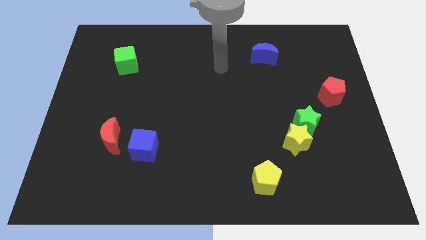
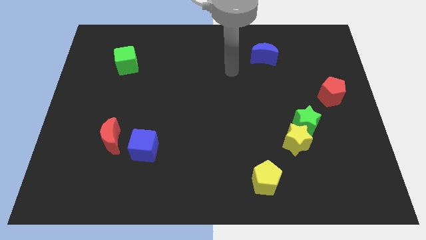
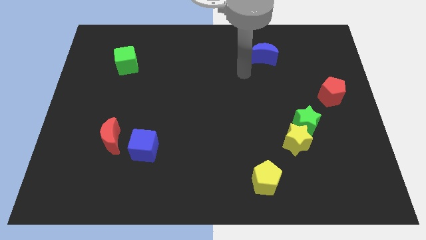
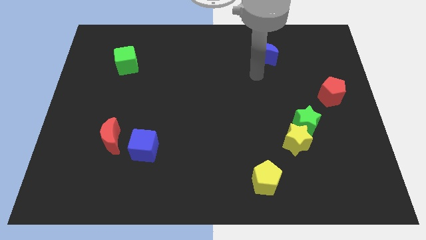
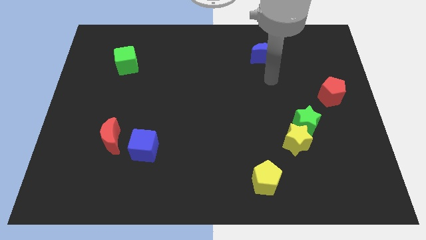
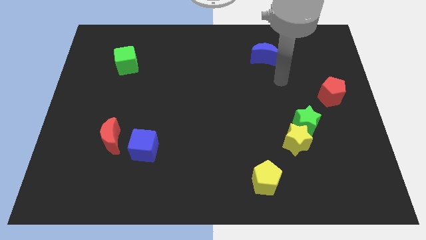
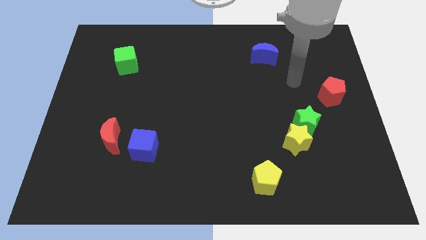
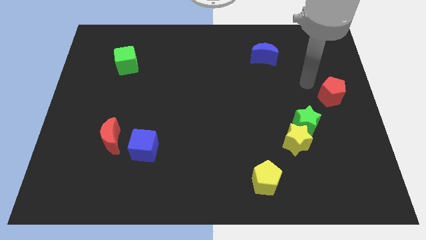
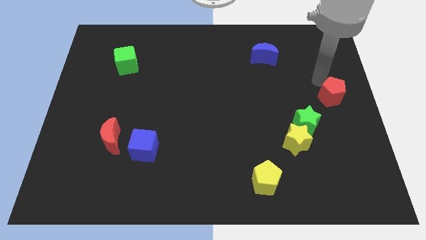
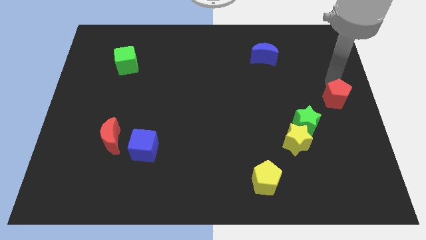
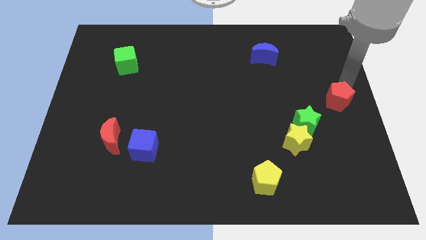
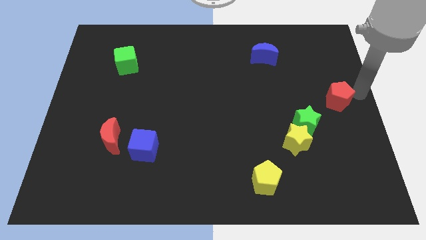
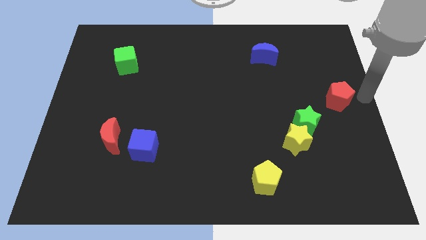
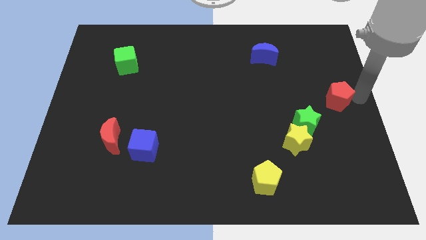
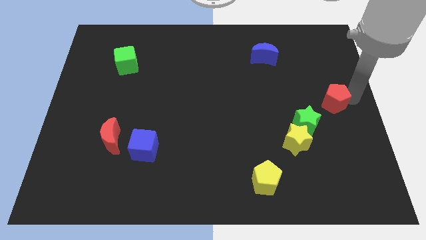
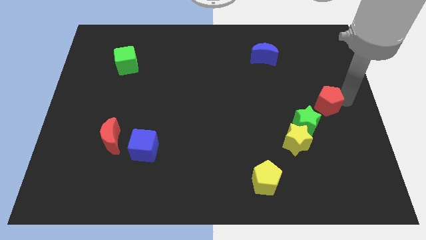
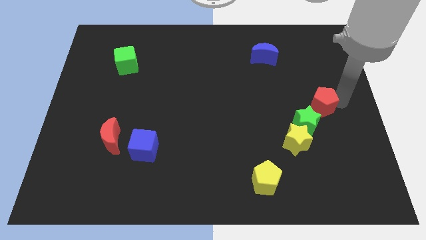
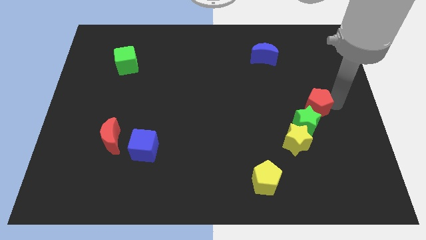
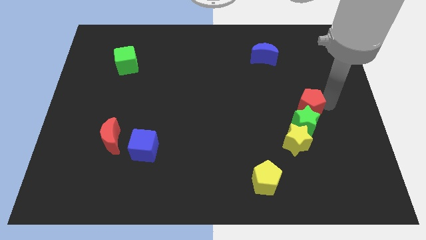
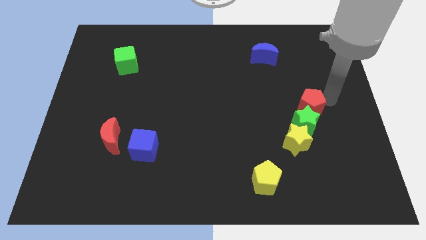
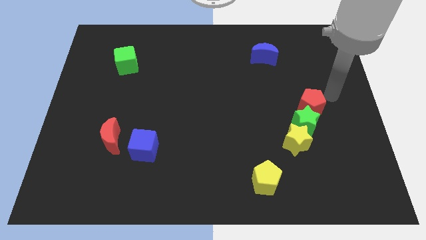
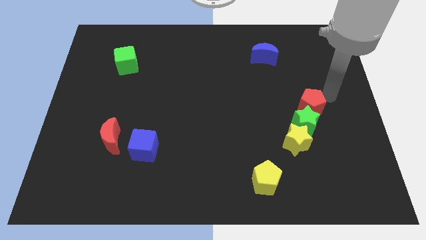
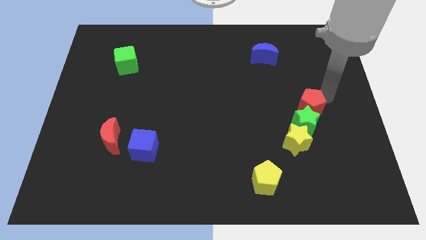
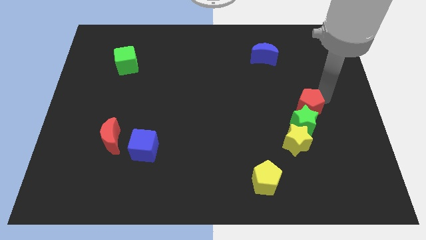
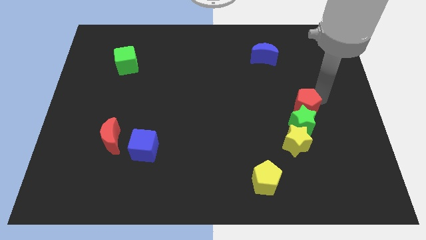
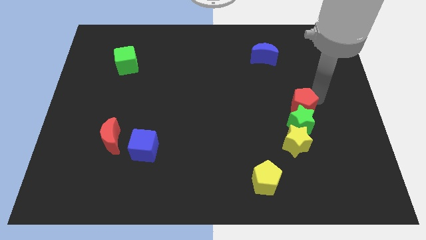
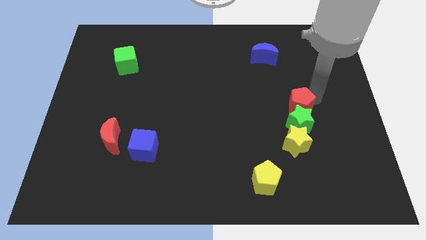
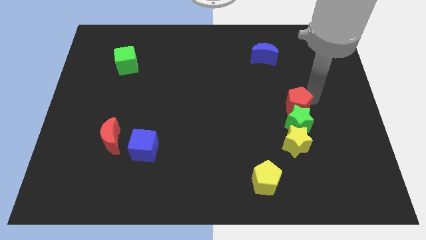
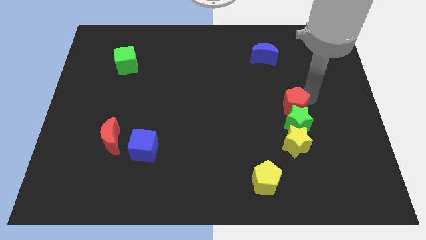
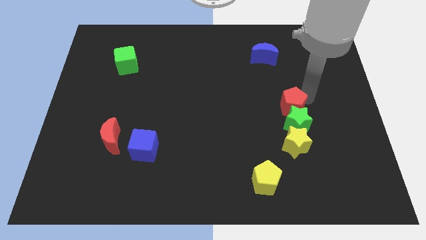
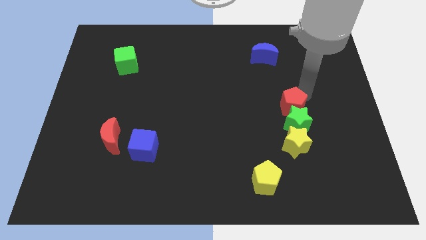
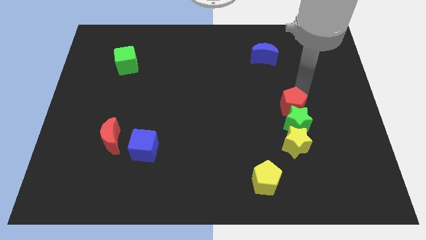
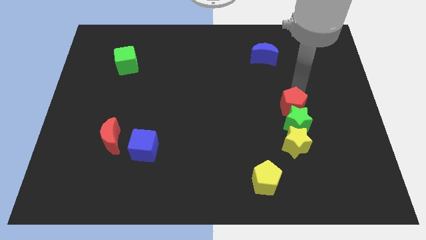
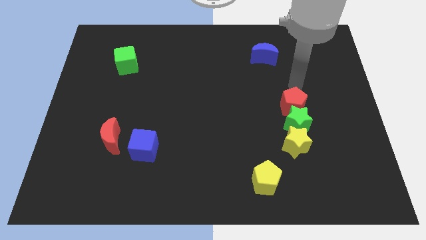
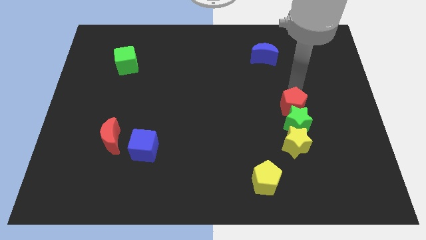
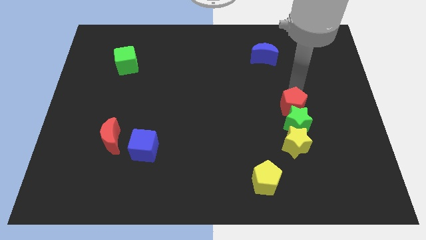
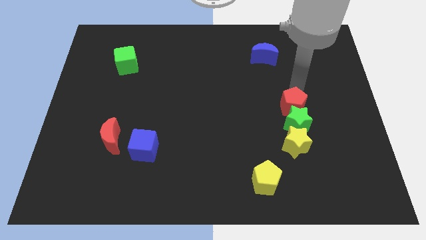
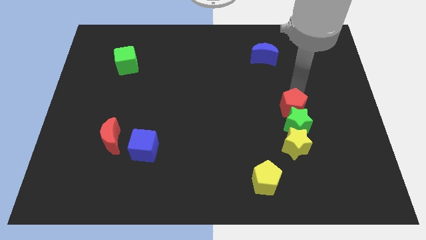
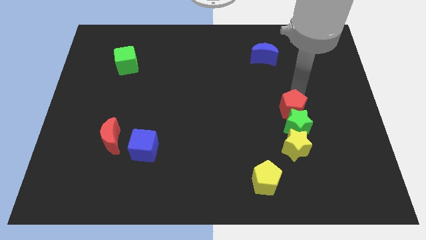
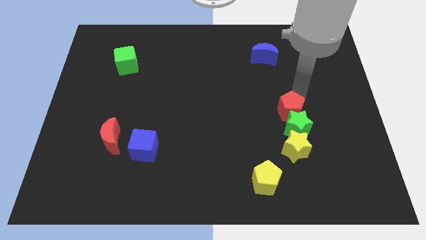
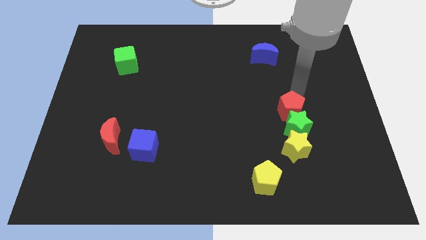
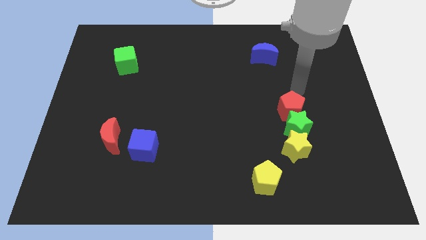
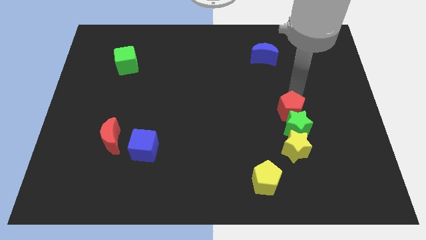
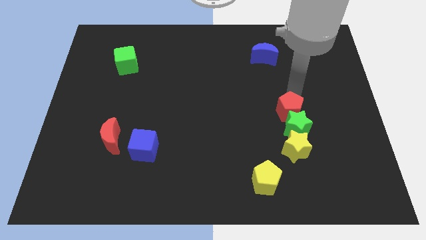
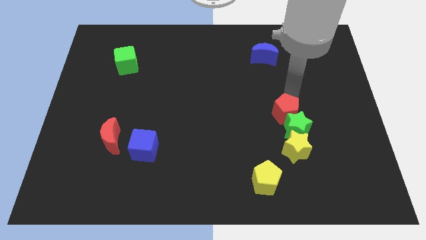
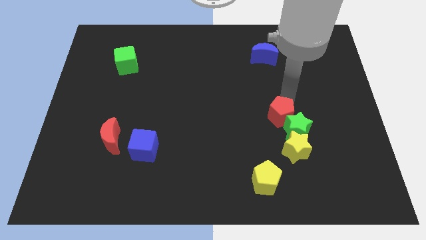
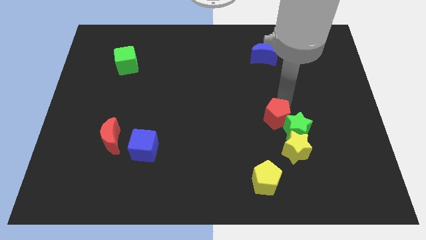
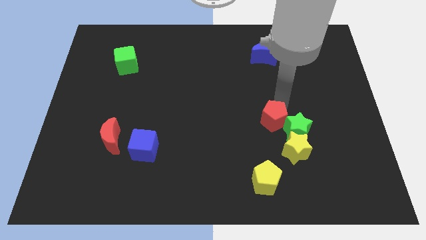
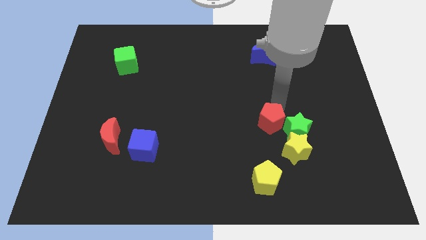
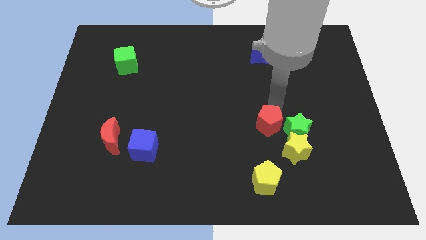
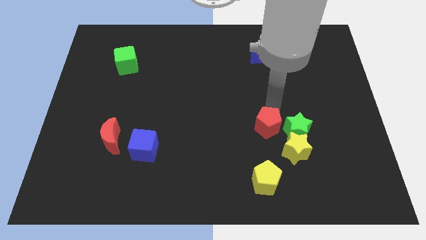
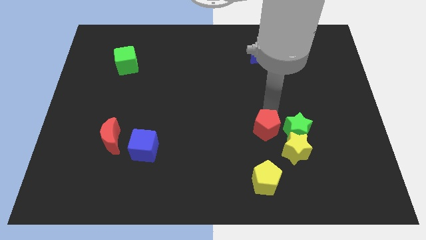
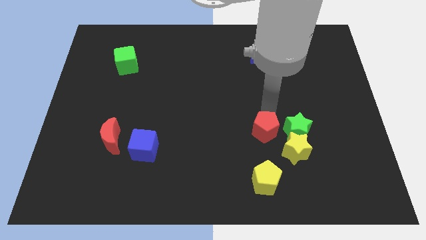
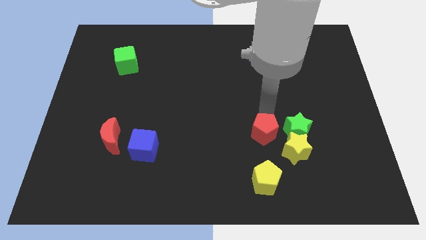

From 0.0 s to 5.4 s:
slide the red pentagon to the bottom left side of the green star

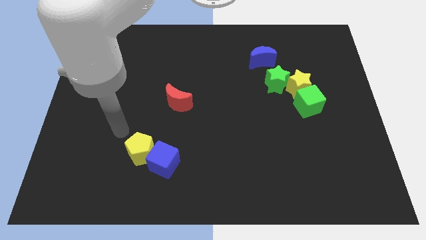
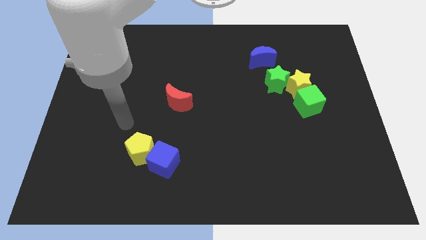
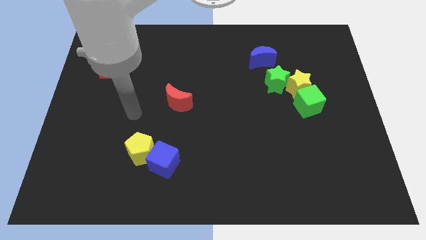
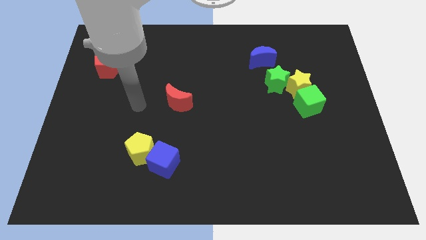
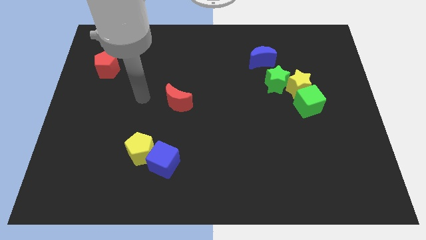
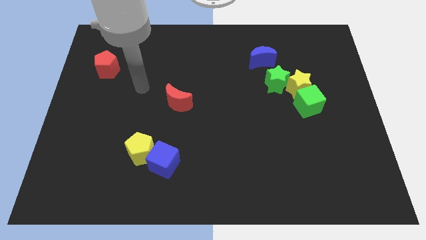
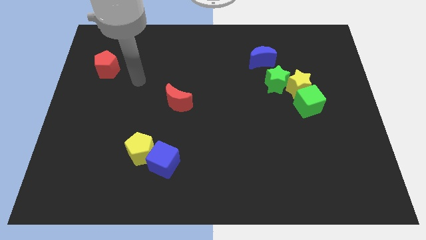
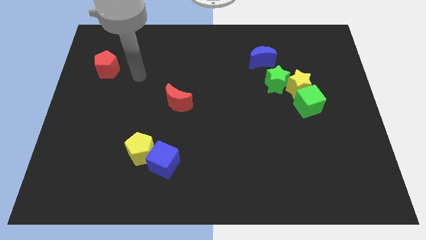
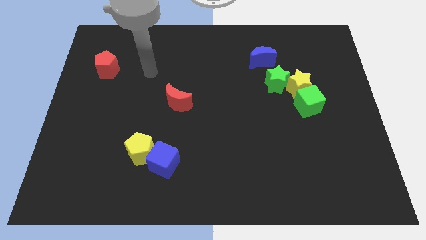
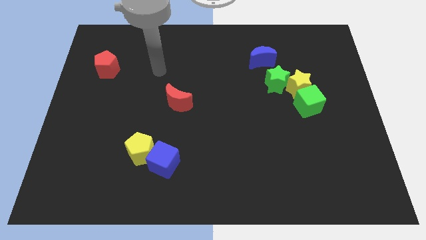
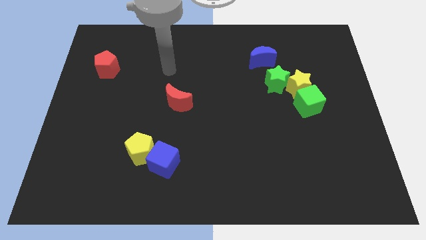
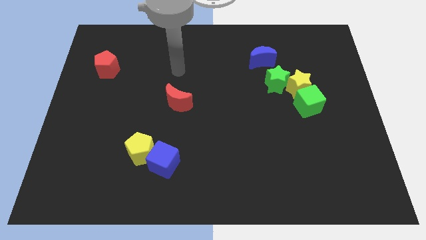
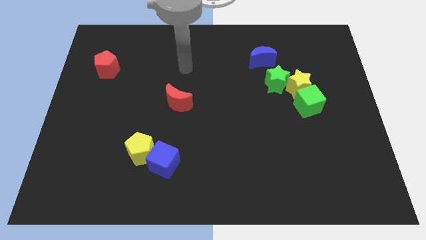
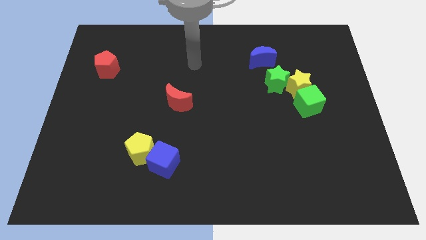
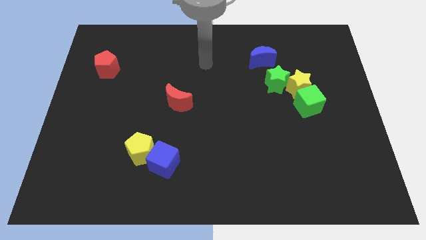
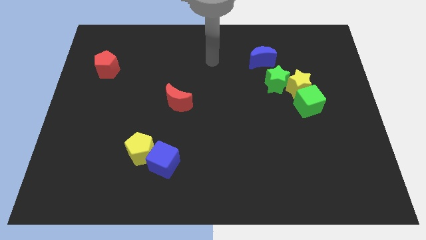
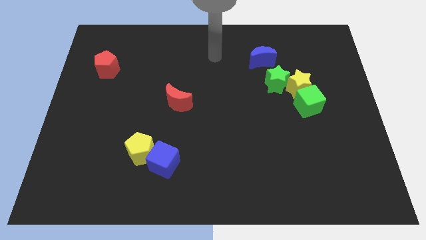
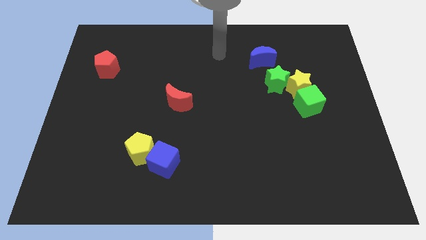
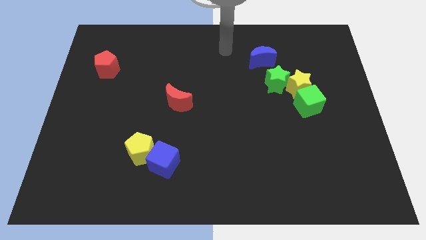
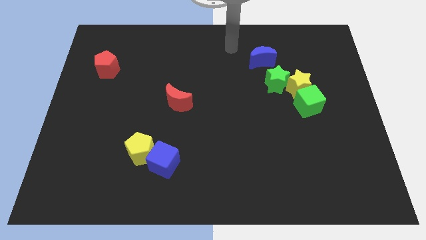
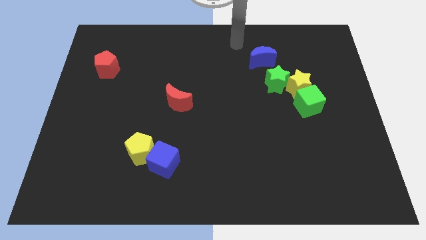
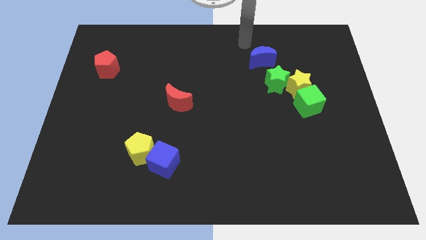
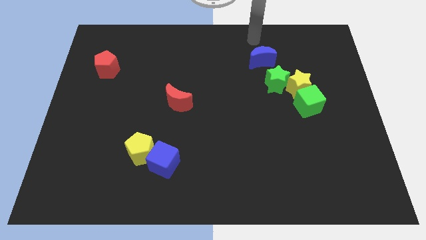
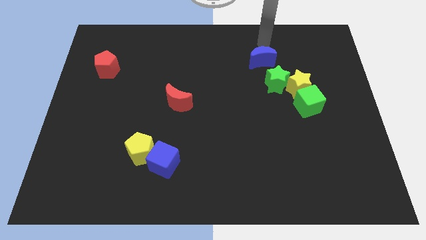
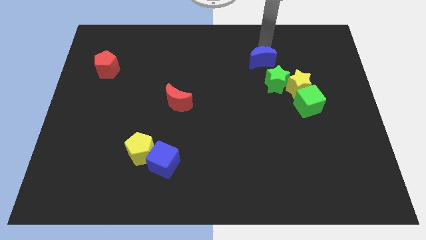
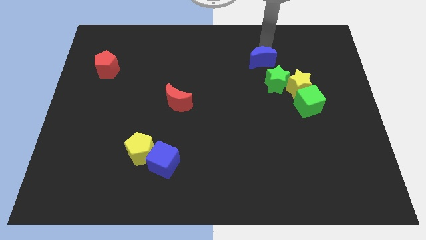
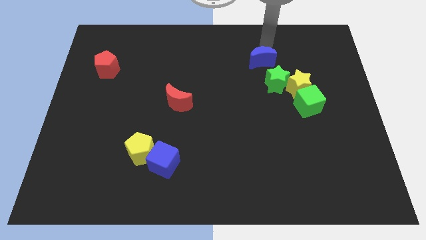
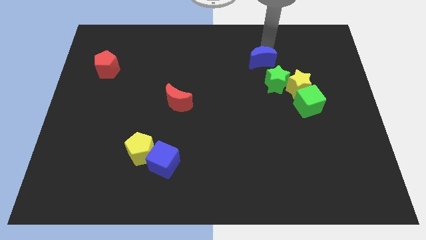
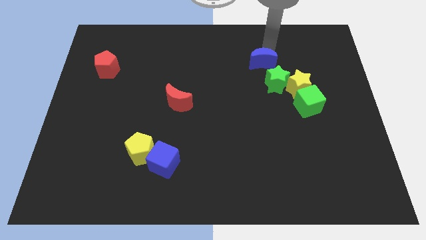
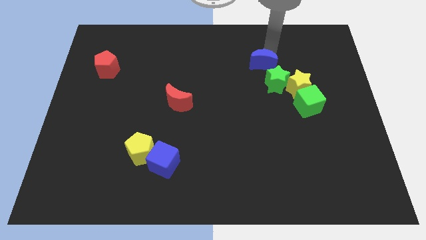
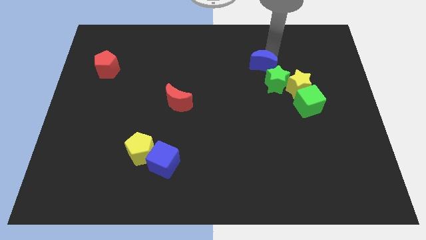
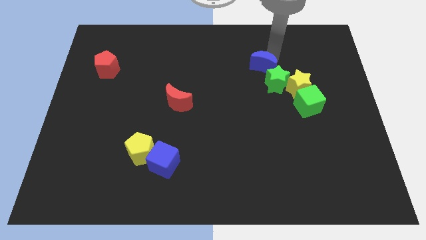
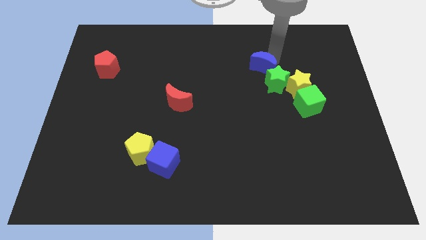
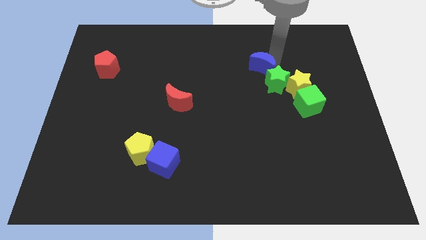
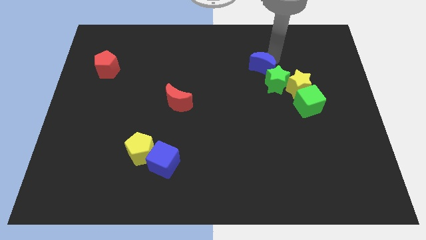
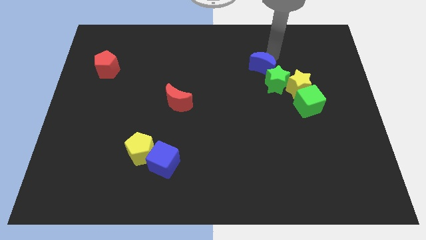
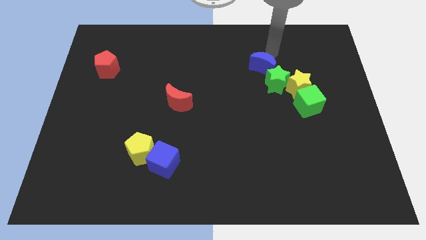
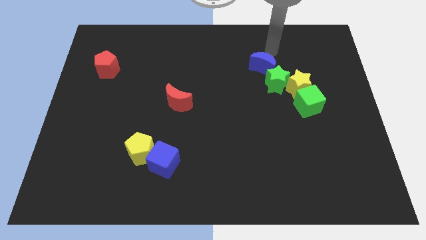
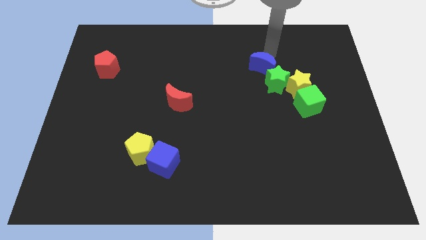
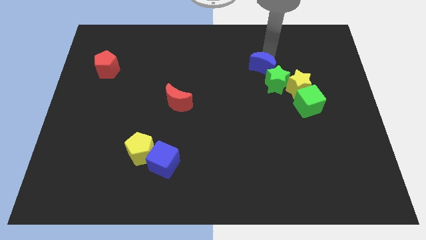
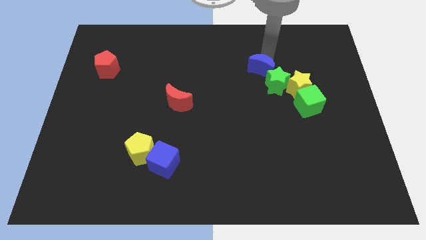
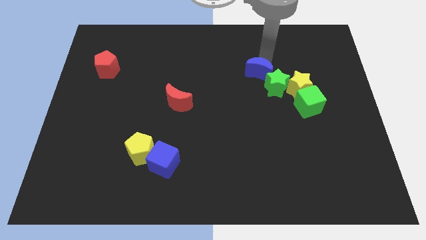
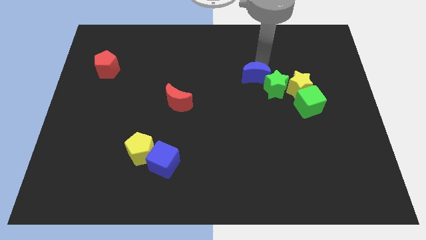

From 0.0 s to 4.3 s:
put the blue moon to the left side of the yellow star
